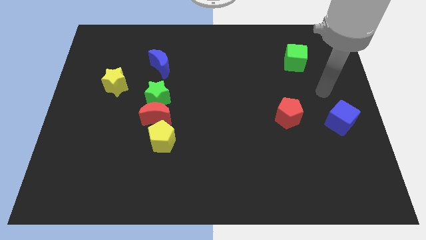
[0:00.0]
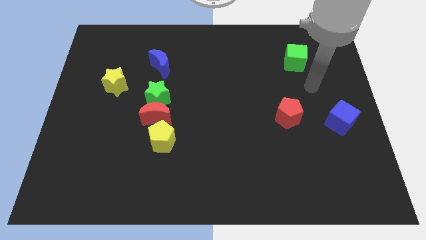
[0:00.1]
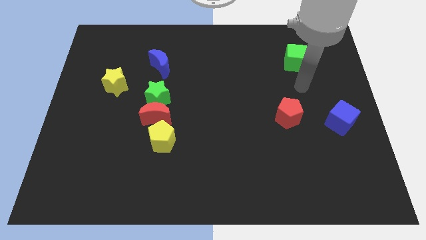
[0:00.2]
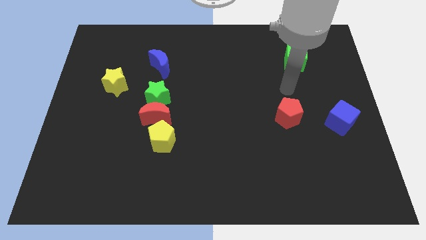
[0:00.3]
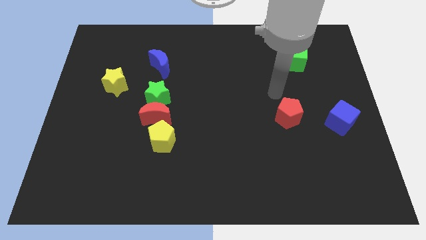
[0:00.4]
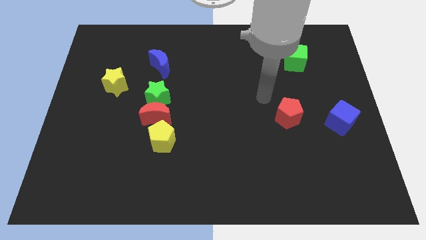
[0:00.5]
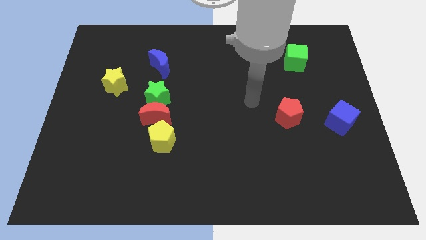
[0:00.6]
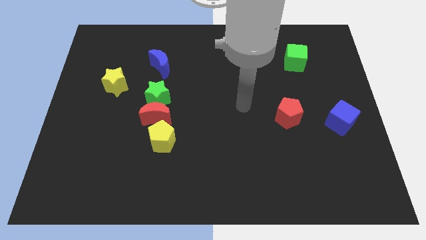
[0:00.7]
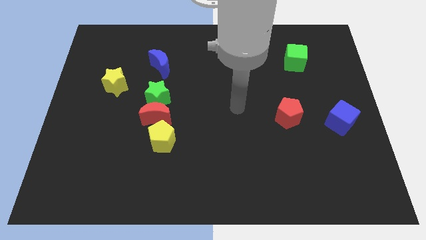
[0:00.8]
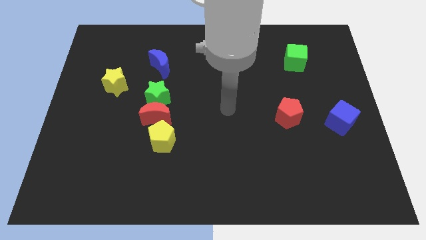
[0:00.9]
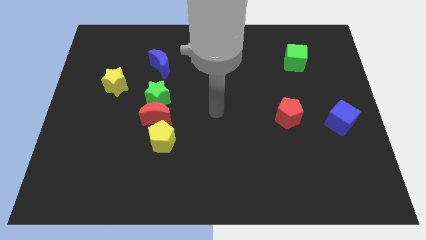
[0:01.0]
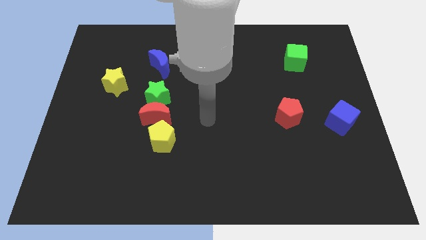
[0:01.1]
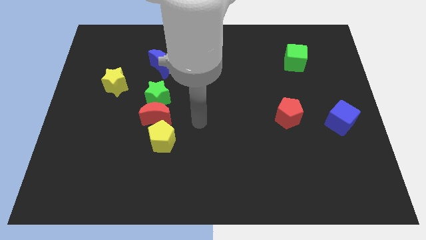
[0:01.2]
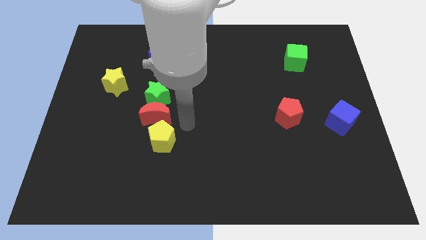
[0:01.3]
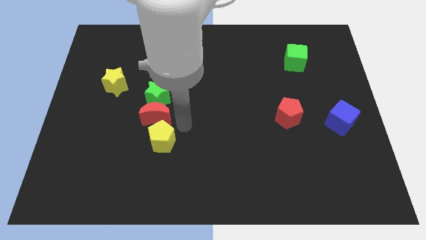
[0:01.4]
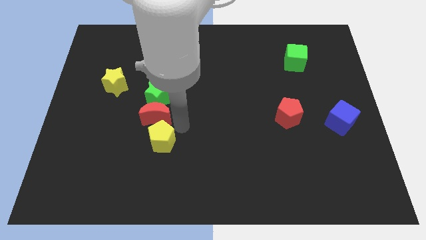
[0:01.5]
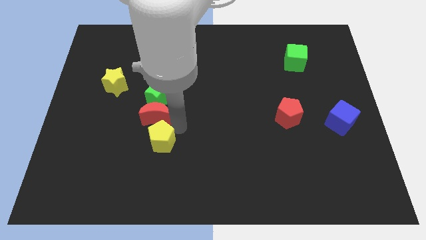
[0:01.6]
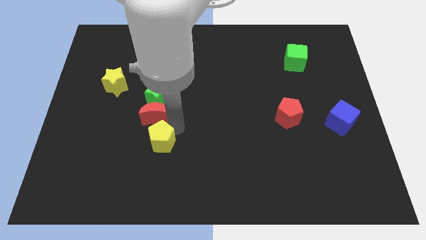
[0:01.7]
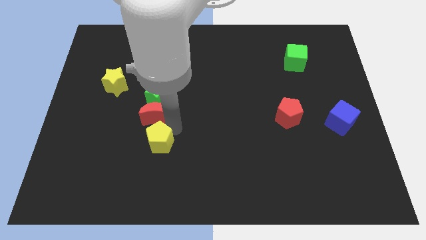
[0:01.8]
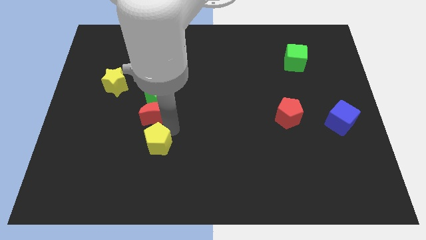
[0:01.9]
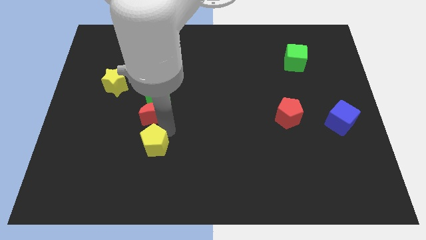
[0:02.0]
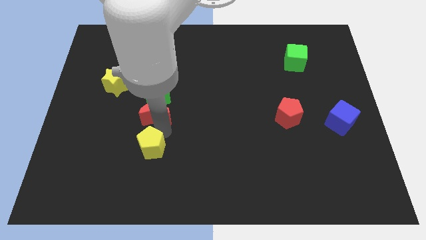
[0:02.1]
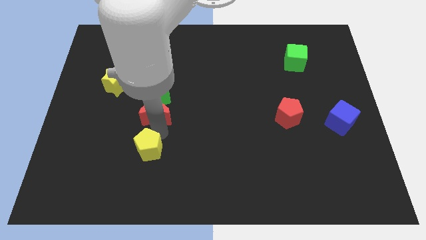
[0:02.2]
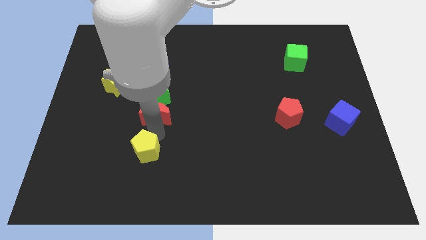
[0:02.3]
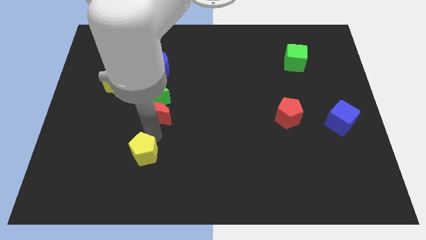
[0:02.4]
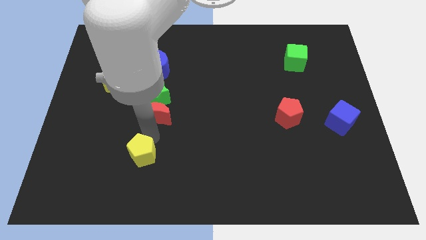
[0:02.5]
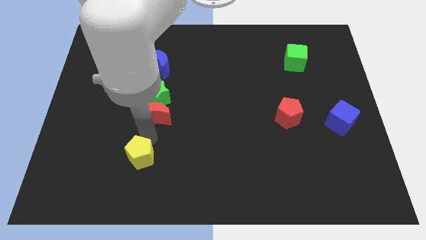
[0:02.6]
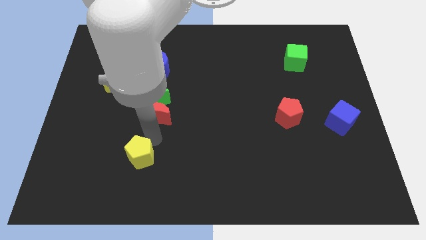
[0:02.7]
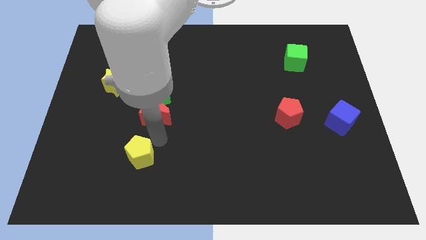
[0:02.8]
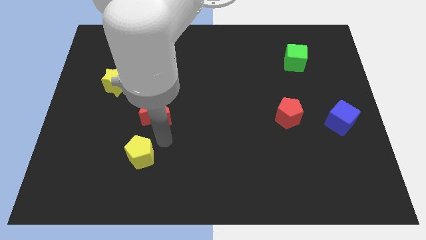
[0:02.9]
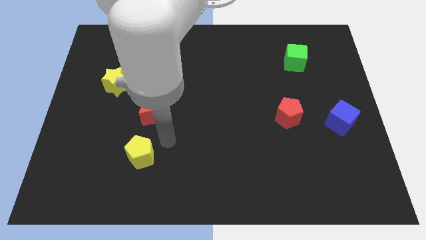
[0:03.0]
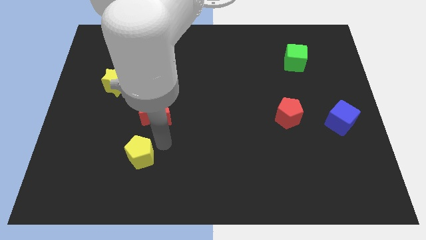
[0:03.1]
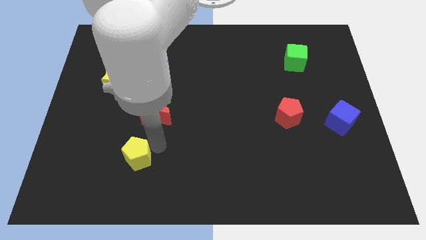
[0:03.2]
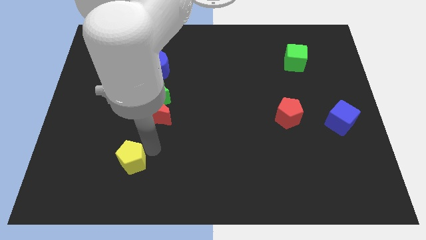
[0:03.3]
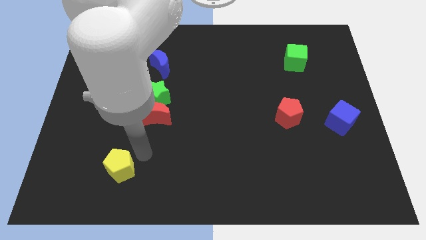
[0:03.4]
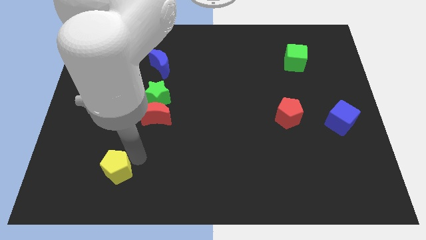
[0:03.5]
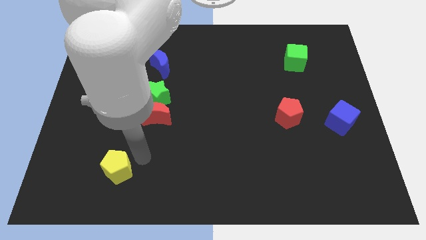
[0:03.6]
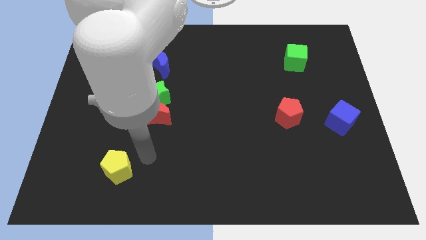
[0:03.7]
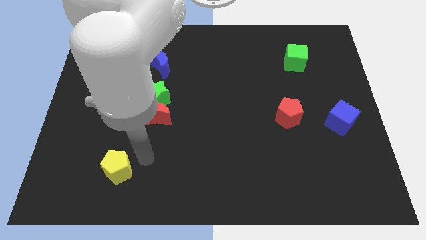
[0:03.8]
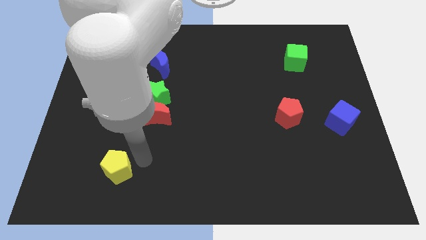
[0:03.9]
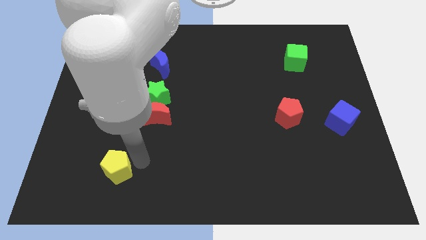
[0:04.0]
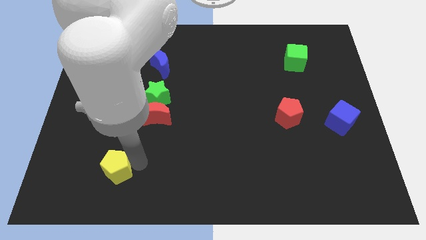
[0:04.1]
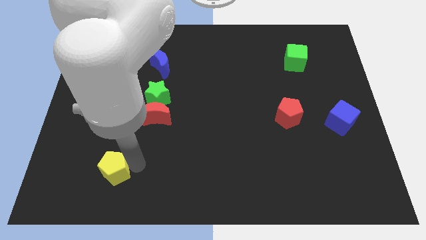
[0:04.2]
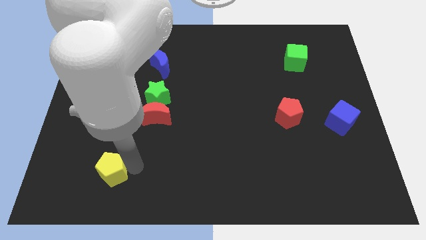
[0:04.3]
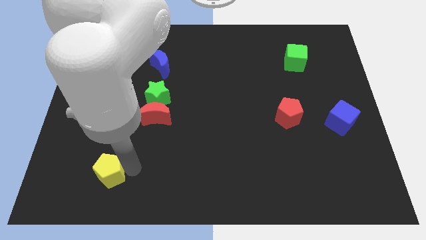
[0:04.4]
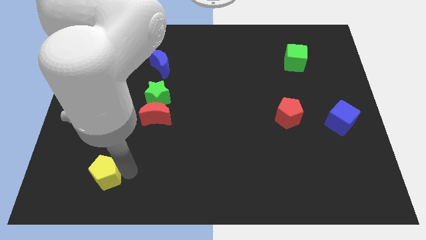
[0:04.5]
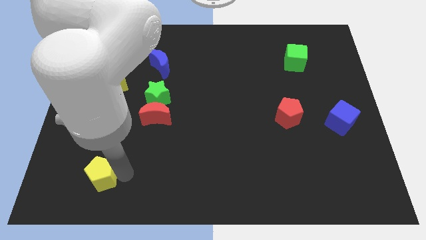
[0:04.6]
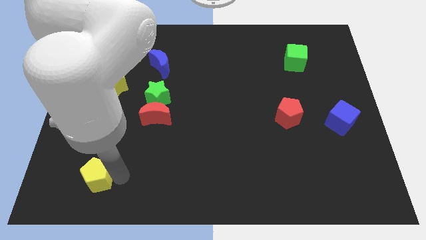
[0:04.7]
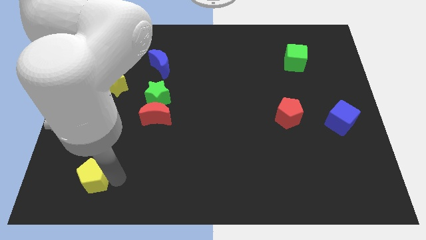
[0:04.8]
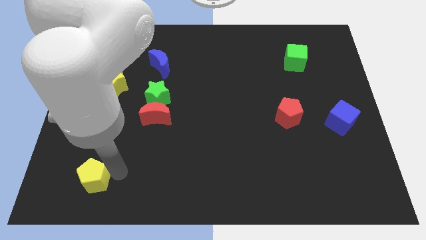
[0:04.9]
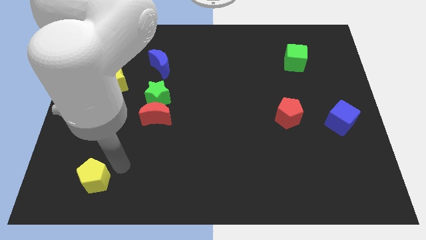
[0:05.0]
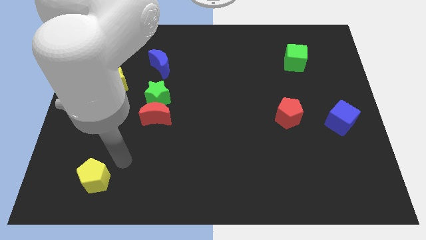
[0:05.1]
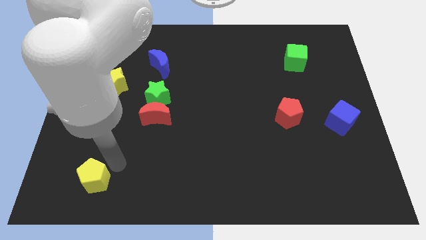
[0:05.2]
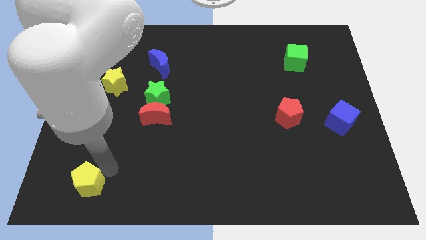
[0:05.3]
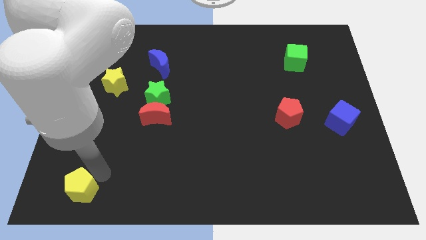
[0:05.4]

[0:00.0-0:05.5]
move the yellow pentagon to the bottom left of the board
